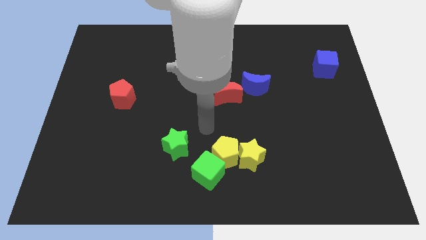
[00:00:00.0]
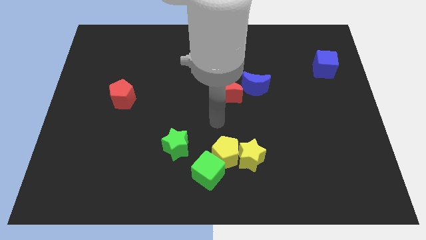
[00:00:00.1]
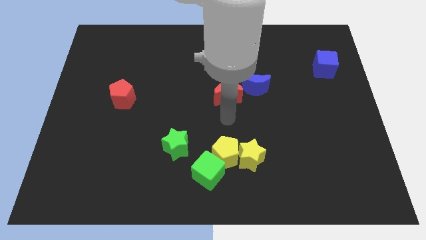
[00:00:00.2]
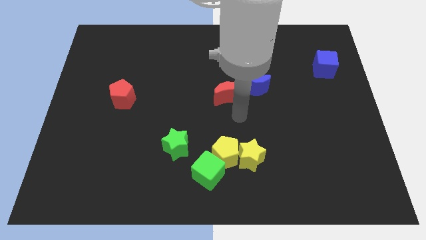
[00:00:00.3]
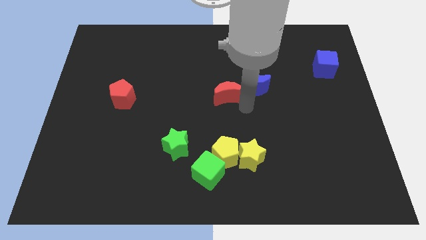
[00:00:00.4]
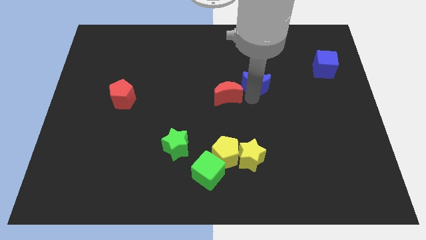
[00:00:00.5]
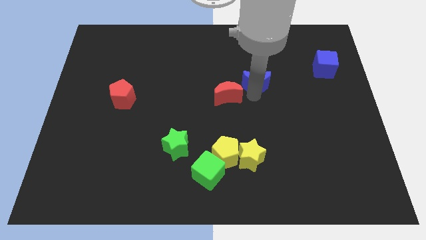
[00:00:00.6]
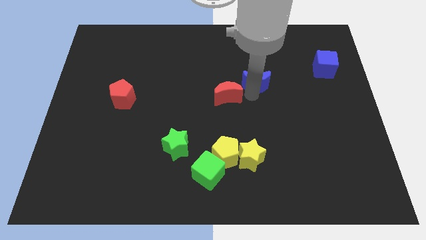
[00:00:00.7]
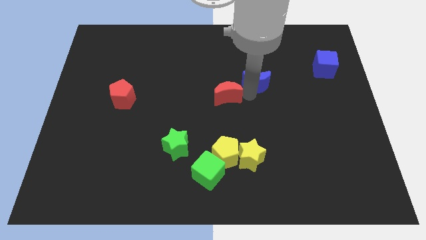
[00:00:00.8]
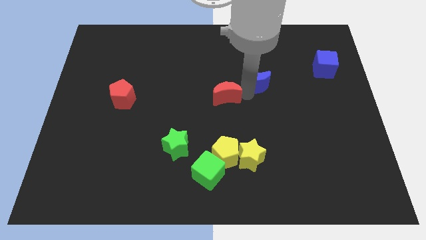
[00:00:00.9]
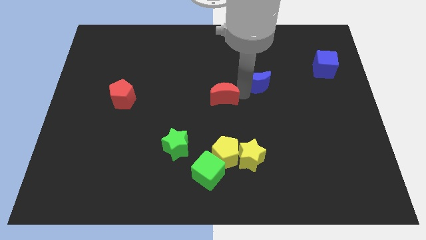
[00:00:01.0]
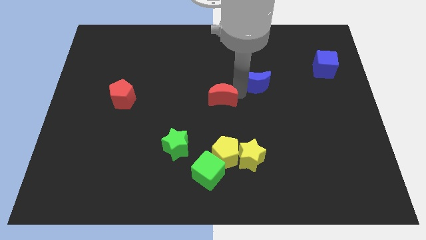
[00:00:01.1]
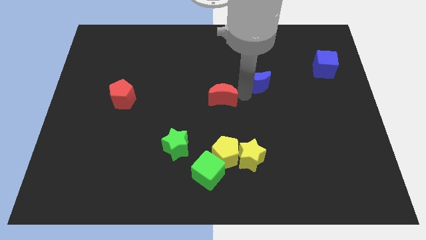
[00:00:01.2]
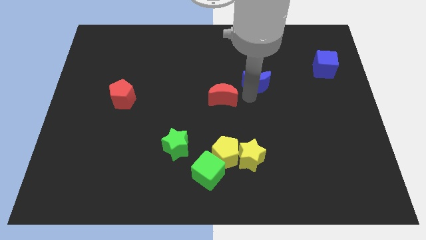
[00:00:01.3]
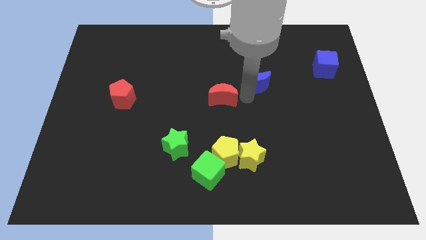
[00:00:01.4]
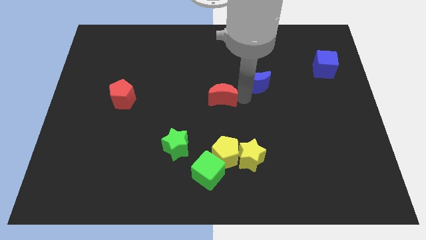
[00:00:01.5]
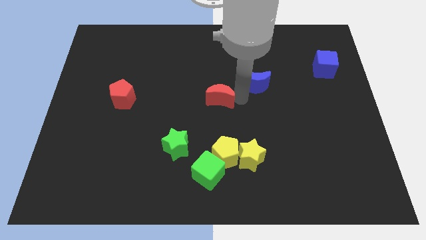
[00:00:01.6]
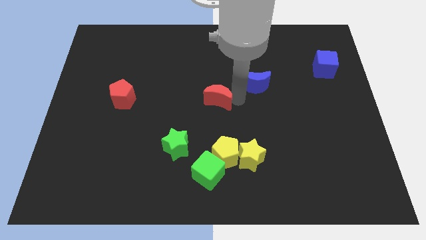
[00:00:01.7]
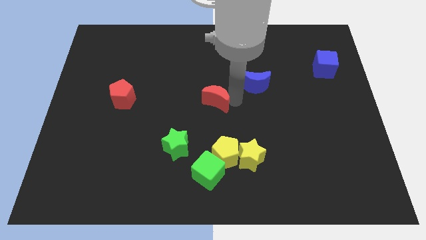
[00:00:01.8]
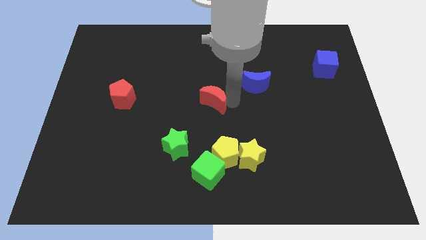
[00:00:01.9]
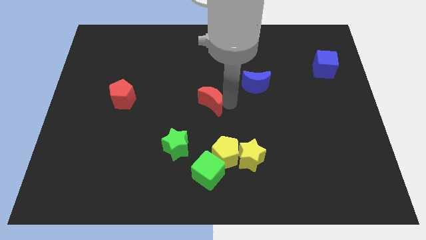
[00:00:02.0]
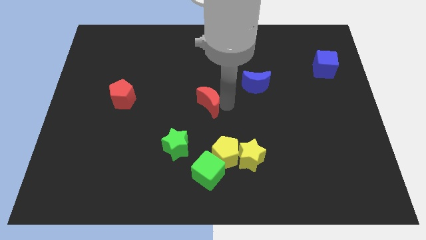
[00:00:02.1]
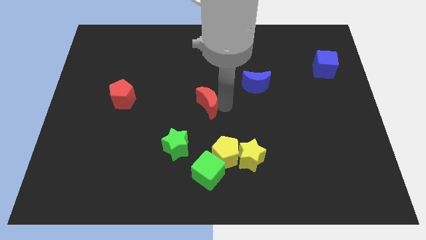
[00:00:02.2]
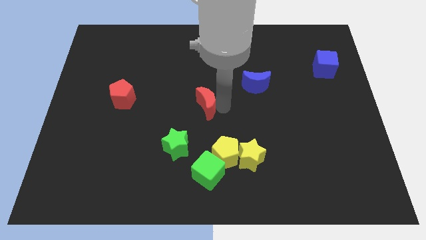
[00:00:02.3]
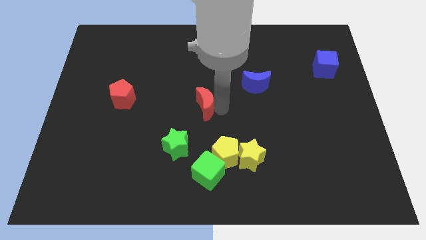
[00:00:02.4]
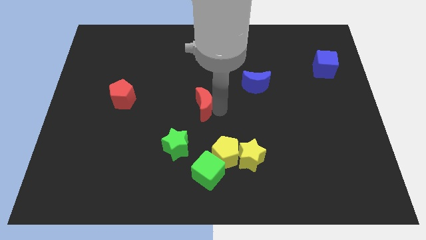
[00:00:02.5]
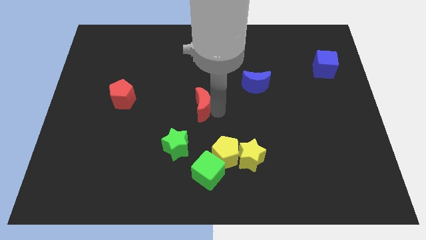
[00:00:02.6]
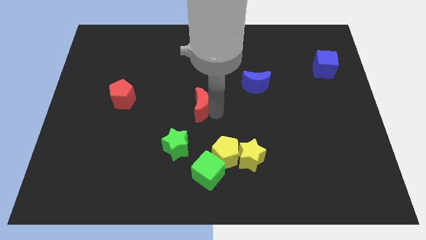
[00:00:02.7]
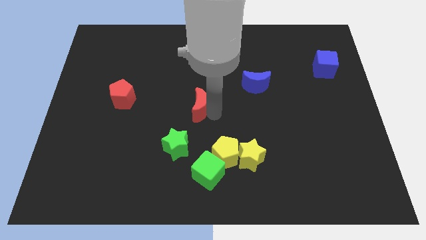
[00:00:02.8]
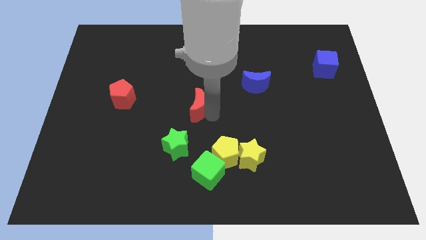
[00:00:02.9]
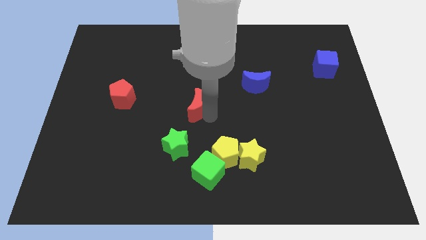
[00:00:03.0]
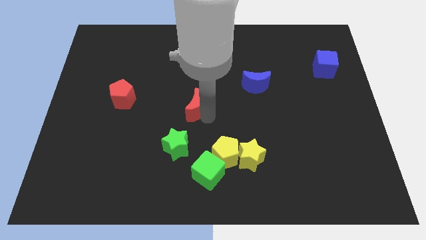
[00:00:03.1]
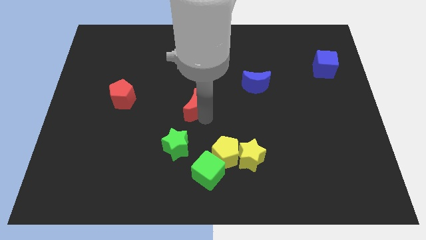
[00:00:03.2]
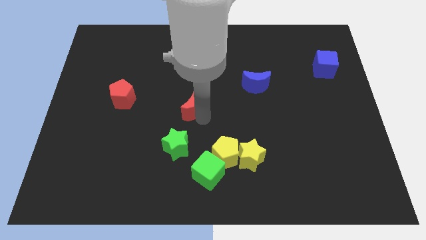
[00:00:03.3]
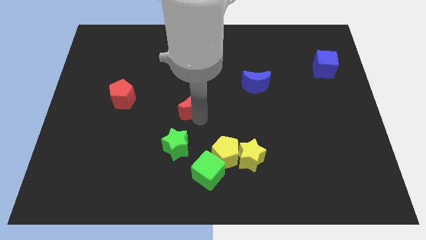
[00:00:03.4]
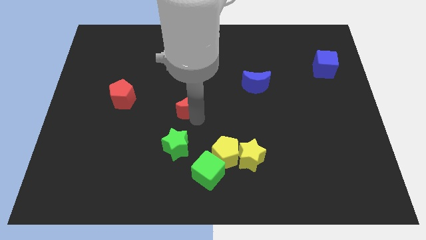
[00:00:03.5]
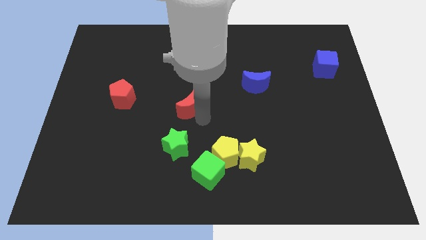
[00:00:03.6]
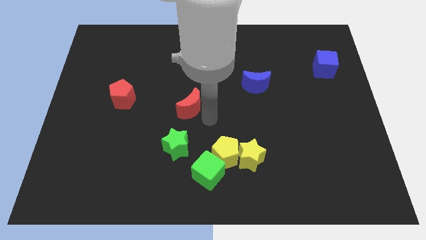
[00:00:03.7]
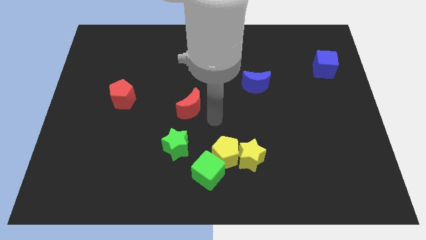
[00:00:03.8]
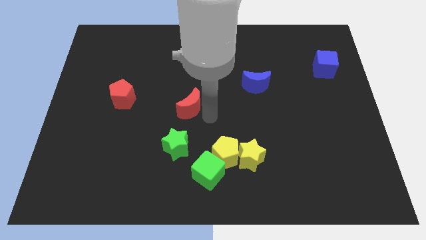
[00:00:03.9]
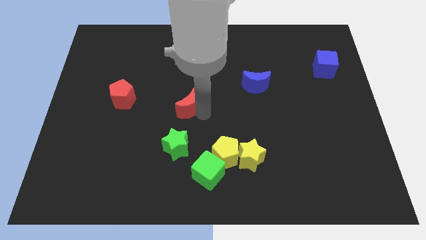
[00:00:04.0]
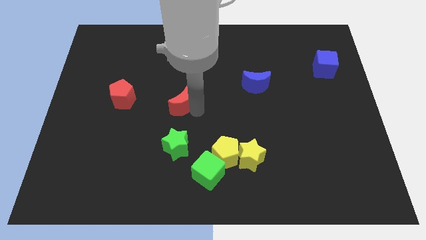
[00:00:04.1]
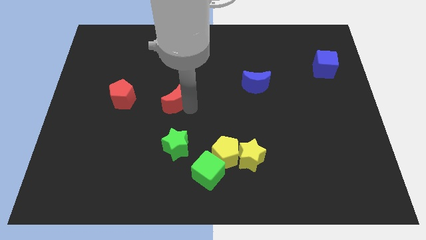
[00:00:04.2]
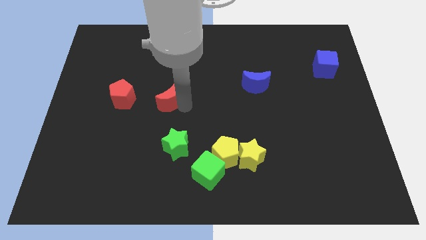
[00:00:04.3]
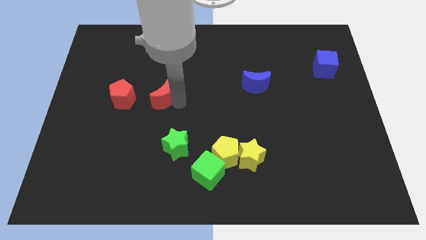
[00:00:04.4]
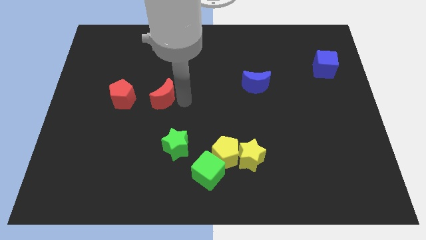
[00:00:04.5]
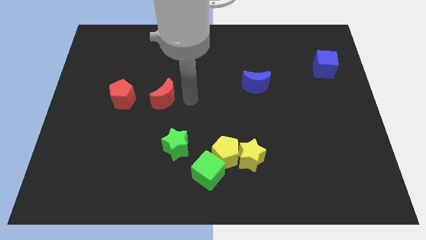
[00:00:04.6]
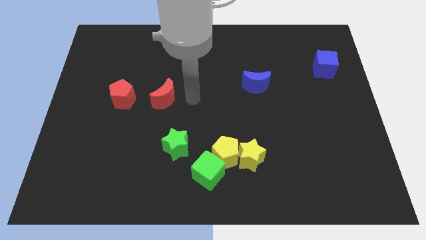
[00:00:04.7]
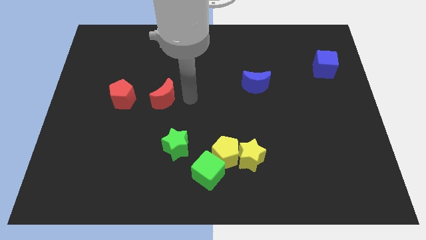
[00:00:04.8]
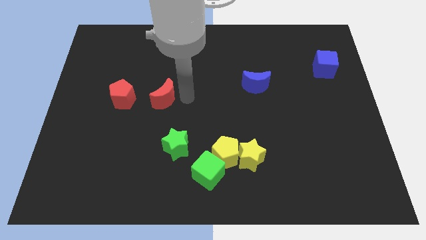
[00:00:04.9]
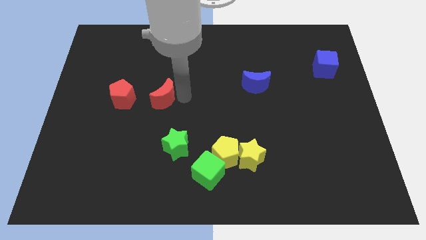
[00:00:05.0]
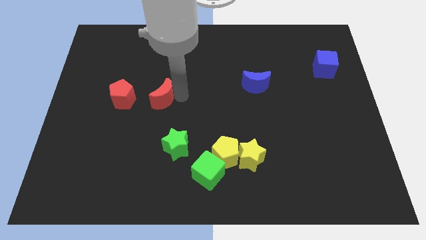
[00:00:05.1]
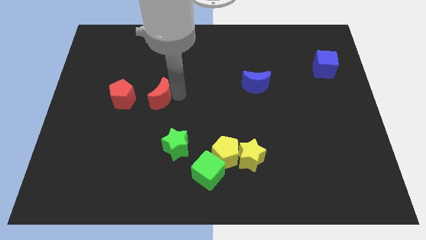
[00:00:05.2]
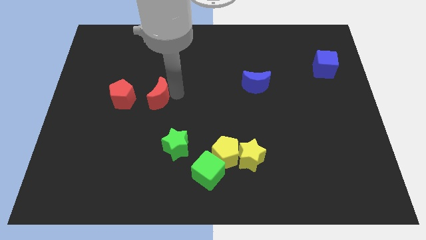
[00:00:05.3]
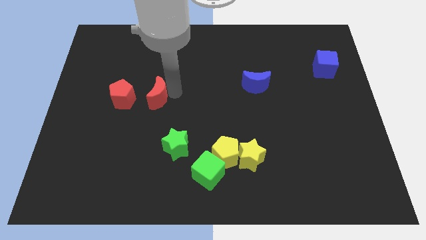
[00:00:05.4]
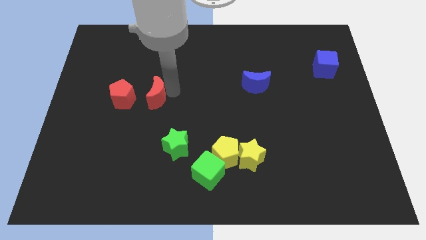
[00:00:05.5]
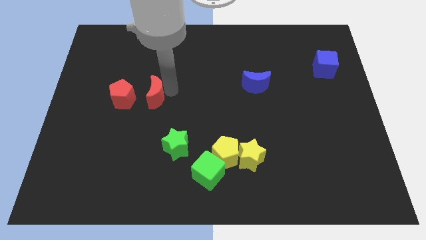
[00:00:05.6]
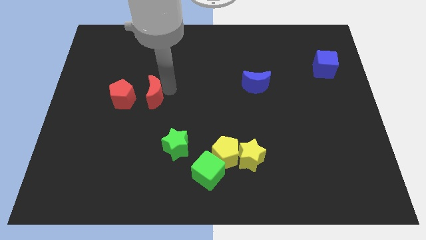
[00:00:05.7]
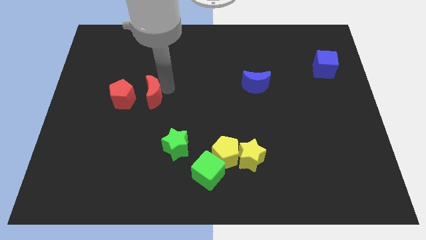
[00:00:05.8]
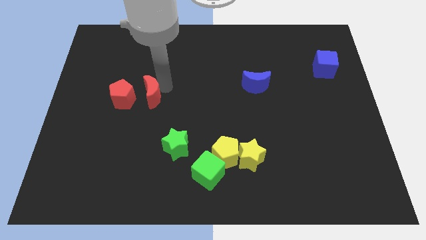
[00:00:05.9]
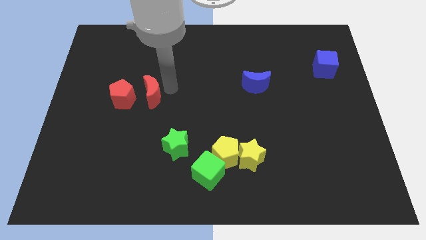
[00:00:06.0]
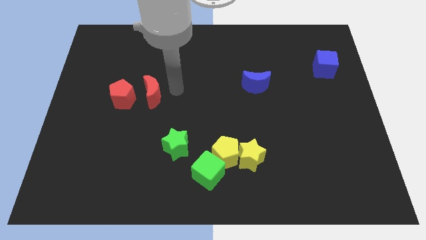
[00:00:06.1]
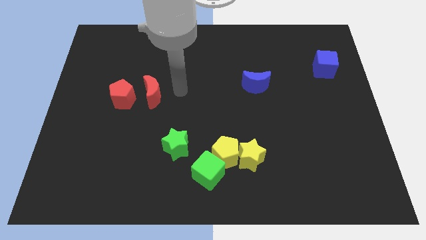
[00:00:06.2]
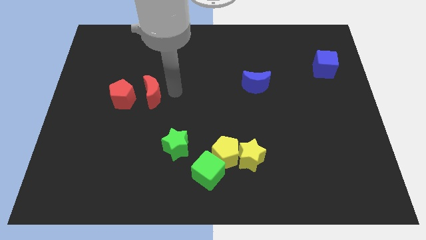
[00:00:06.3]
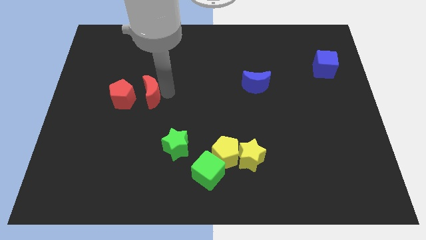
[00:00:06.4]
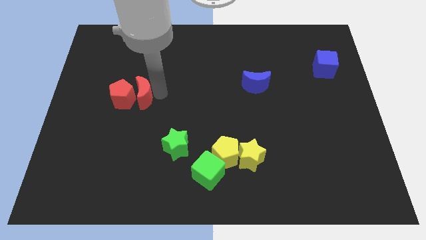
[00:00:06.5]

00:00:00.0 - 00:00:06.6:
put the red moon close to the red pentagon
